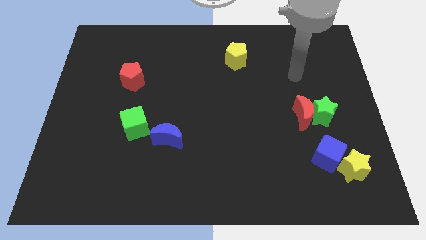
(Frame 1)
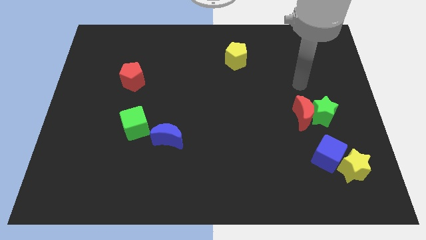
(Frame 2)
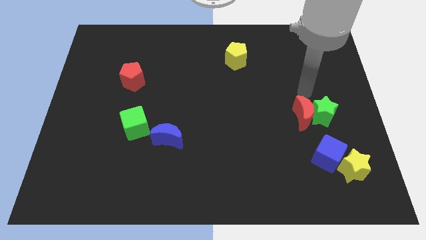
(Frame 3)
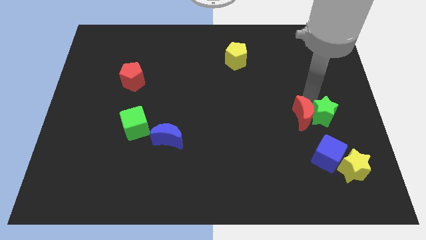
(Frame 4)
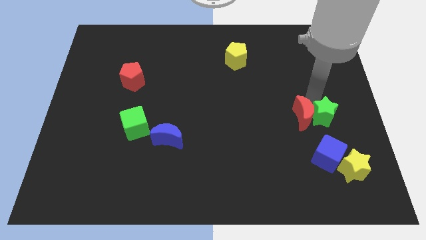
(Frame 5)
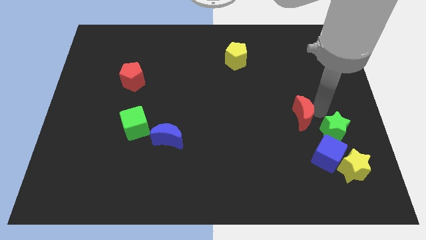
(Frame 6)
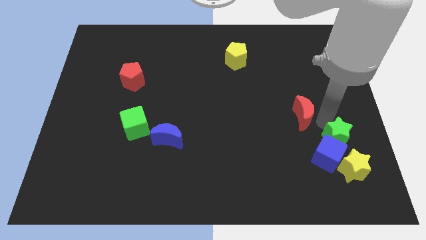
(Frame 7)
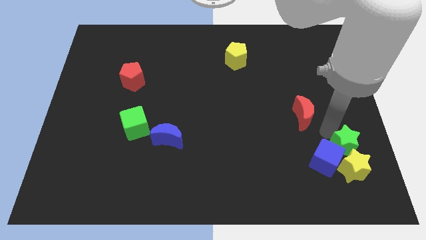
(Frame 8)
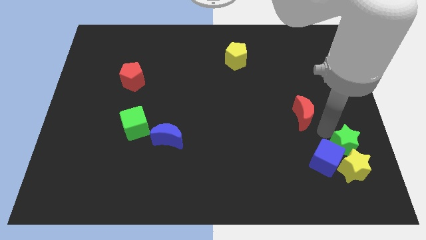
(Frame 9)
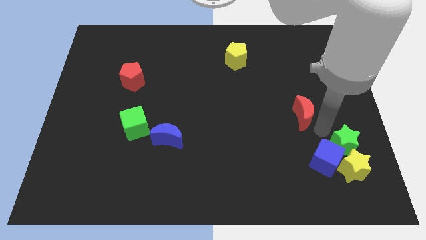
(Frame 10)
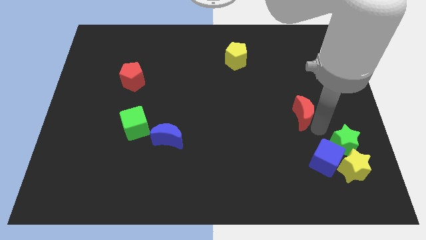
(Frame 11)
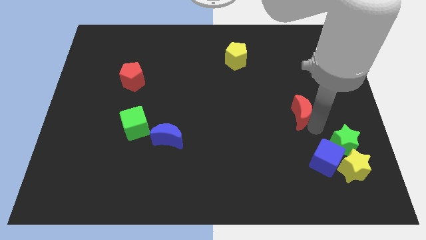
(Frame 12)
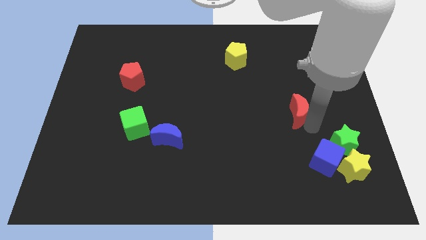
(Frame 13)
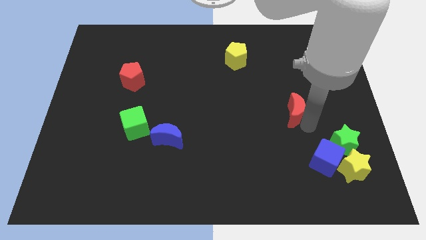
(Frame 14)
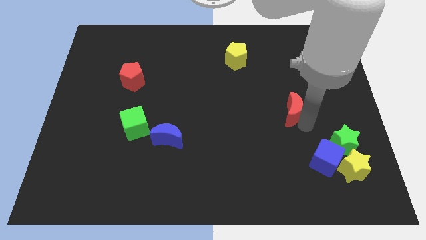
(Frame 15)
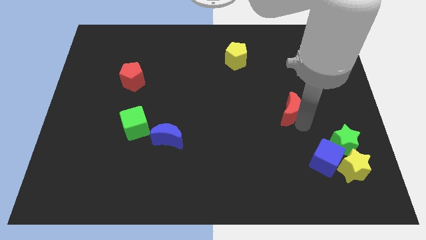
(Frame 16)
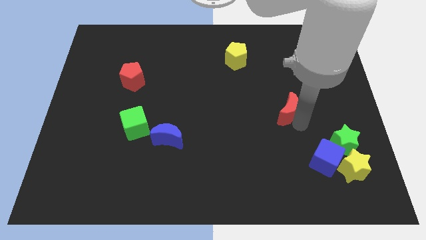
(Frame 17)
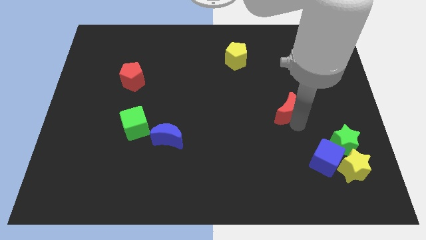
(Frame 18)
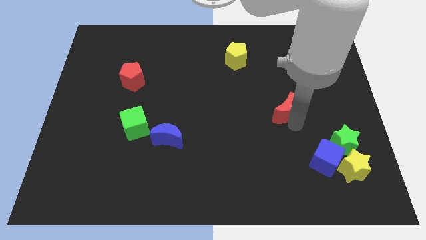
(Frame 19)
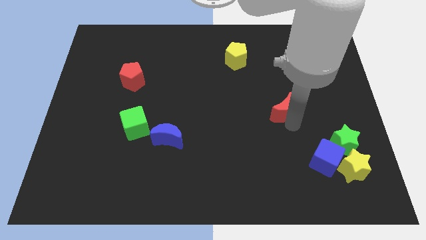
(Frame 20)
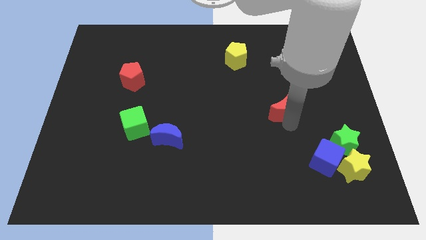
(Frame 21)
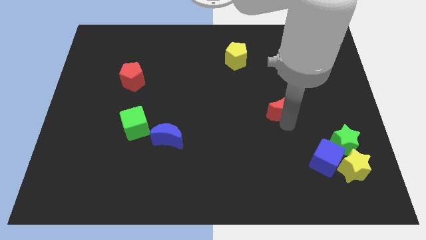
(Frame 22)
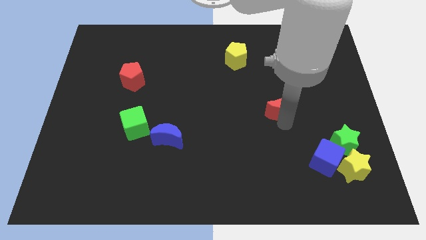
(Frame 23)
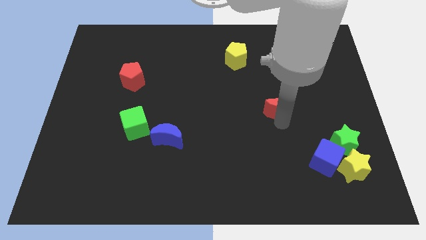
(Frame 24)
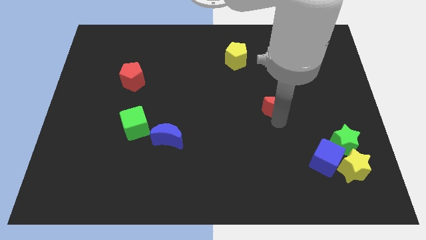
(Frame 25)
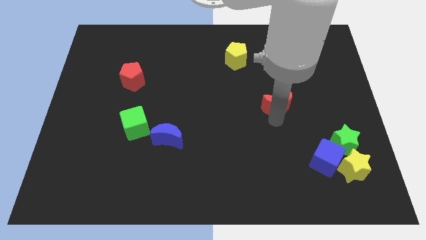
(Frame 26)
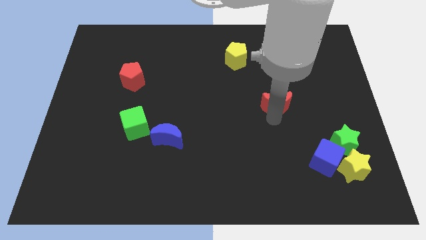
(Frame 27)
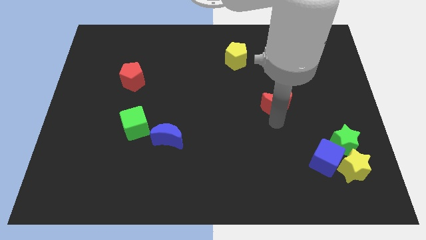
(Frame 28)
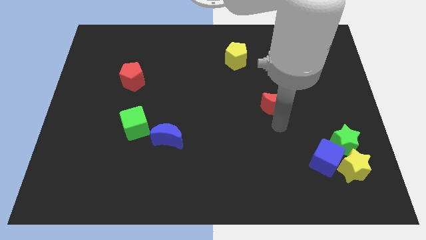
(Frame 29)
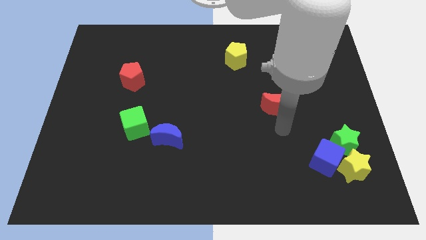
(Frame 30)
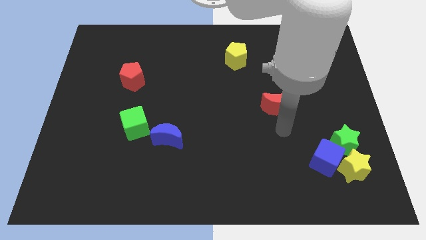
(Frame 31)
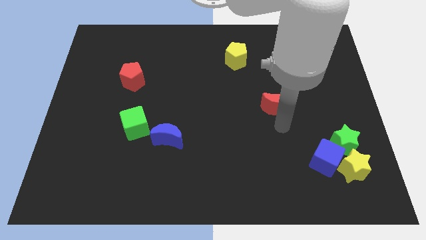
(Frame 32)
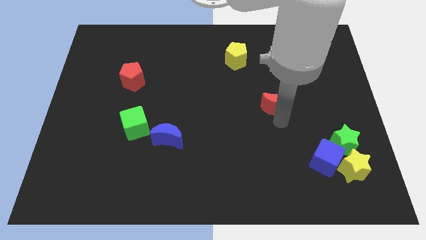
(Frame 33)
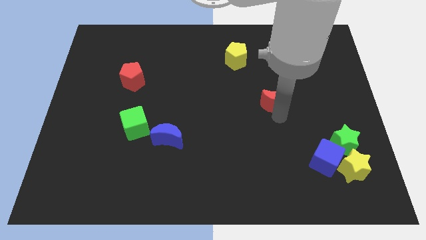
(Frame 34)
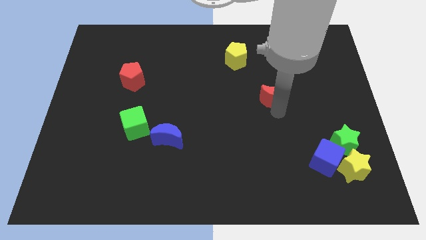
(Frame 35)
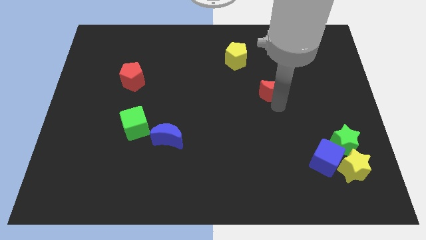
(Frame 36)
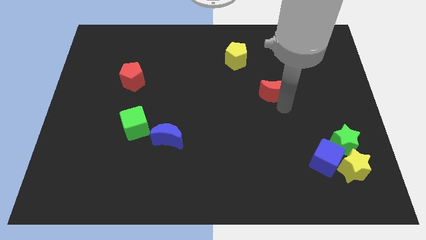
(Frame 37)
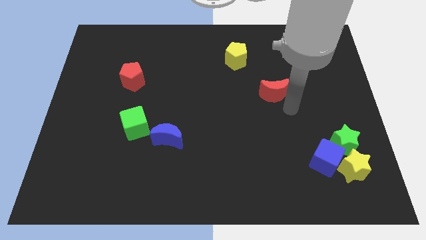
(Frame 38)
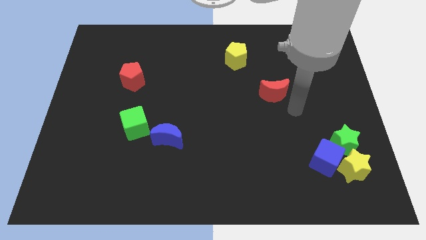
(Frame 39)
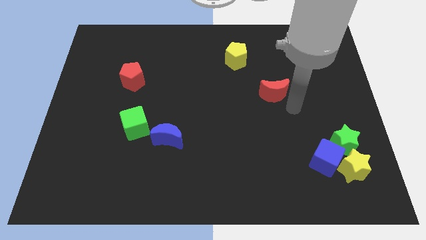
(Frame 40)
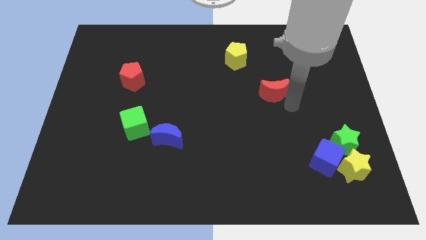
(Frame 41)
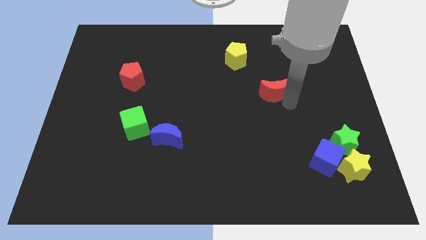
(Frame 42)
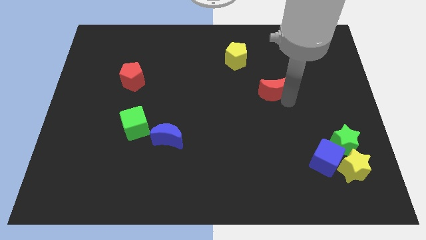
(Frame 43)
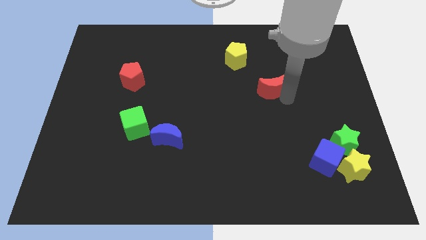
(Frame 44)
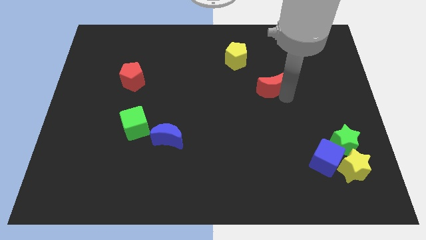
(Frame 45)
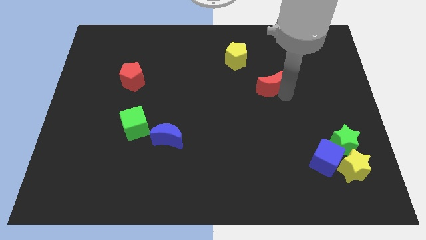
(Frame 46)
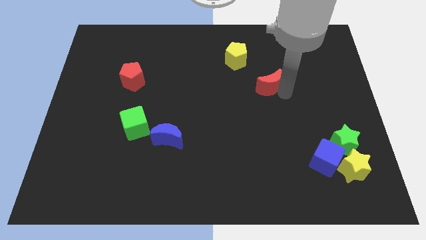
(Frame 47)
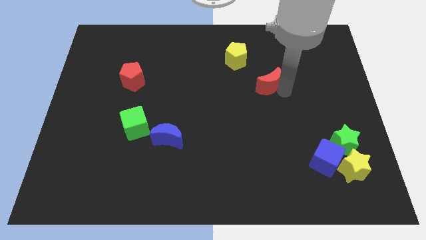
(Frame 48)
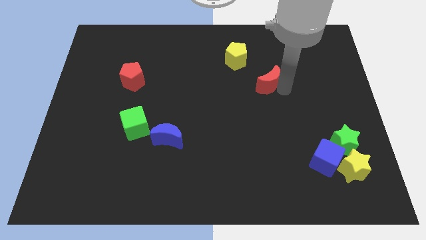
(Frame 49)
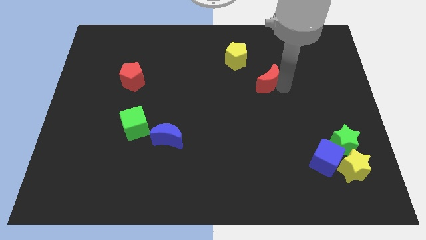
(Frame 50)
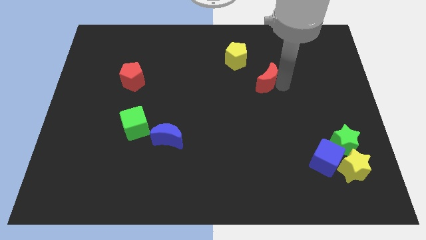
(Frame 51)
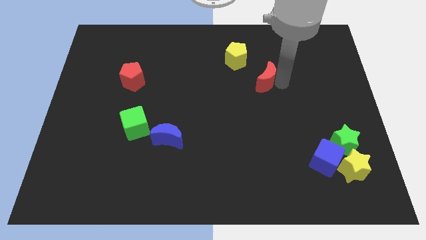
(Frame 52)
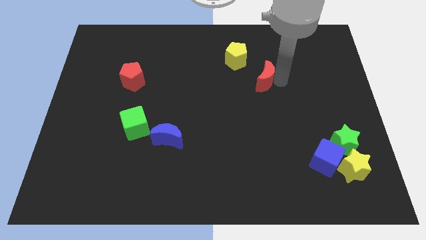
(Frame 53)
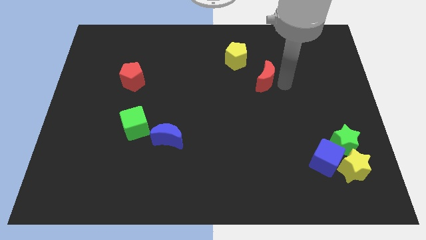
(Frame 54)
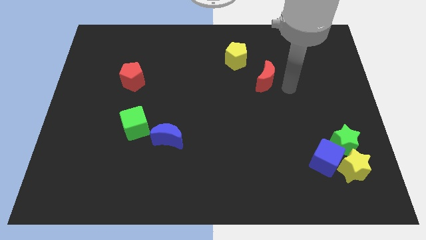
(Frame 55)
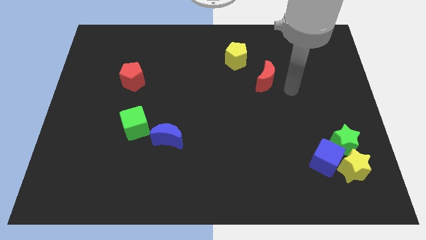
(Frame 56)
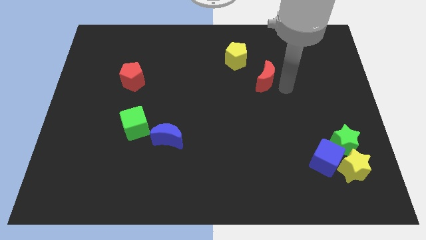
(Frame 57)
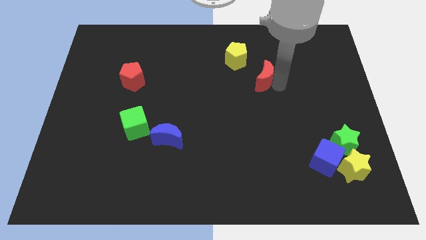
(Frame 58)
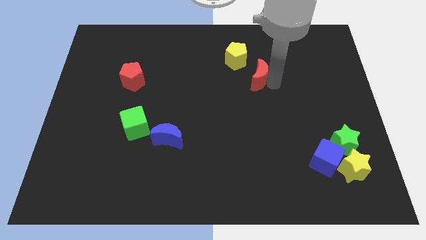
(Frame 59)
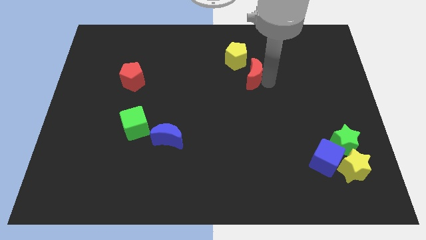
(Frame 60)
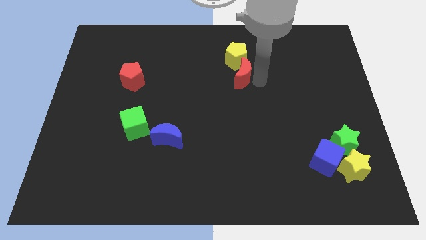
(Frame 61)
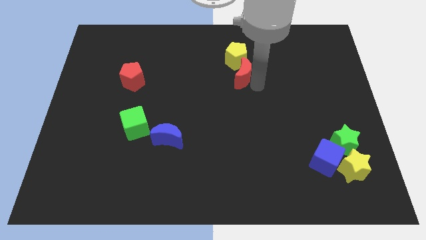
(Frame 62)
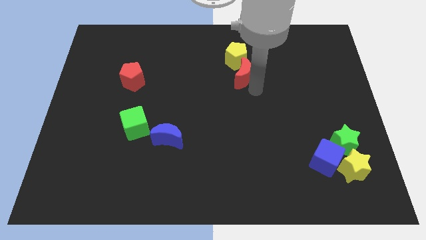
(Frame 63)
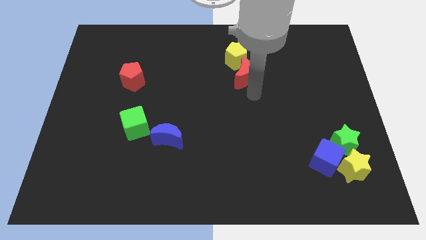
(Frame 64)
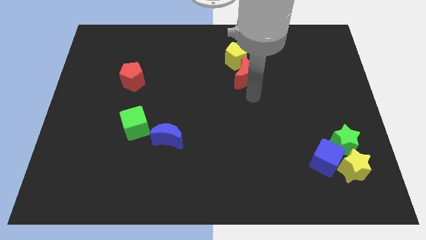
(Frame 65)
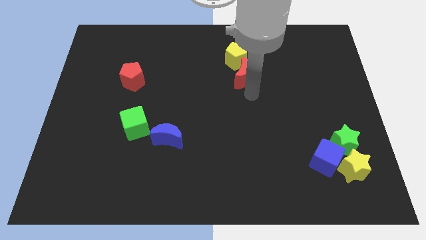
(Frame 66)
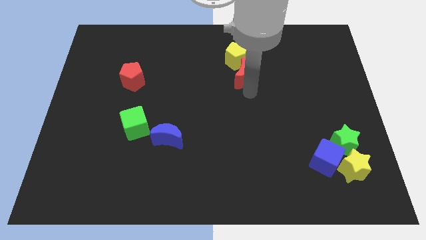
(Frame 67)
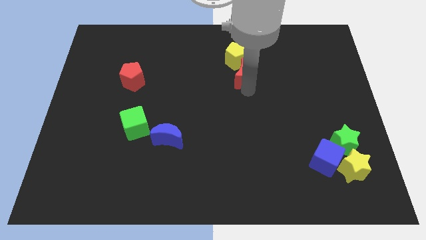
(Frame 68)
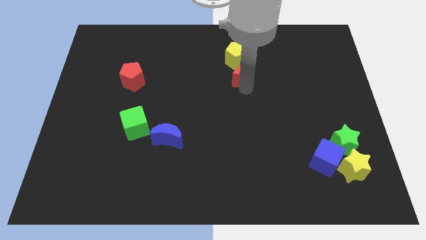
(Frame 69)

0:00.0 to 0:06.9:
push the red moon to the yellow pentagon
